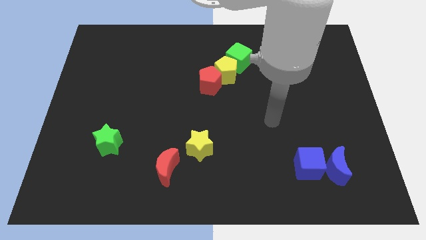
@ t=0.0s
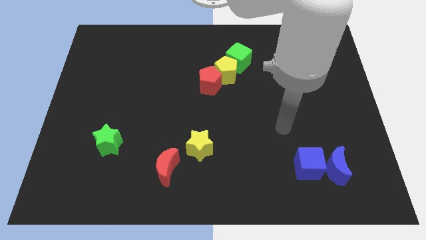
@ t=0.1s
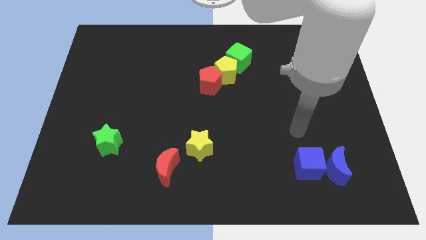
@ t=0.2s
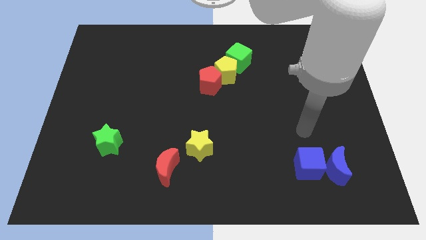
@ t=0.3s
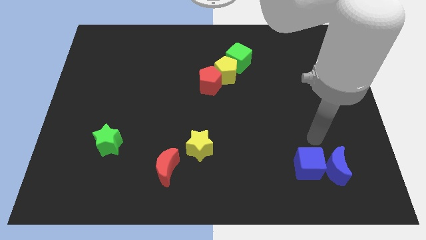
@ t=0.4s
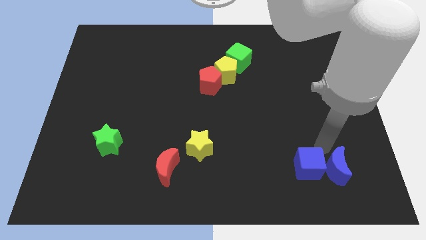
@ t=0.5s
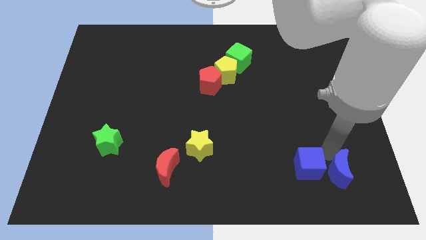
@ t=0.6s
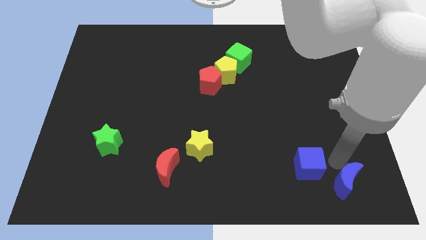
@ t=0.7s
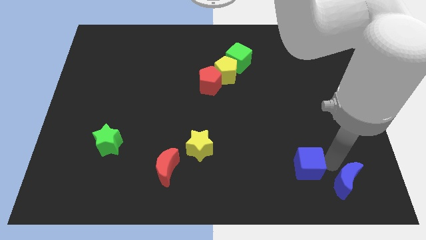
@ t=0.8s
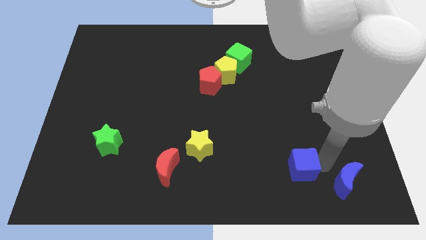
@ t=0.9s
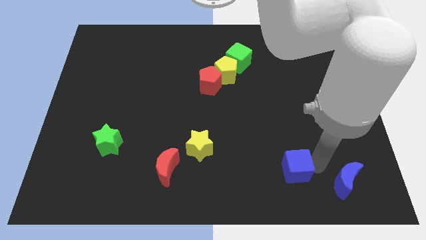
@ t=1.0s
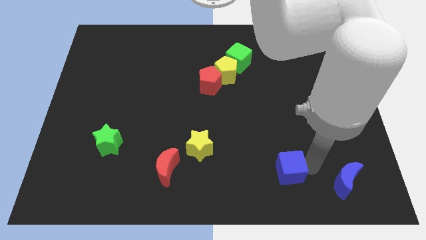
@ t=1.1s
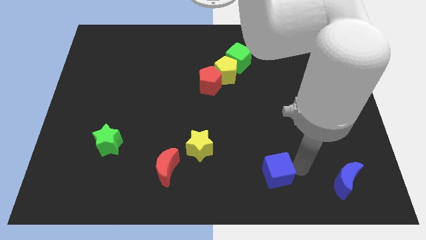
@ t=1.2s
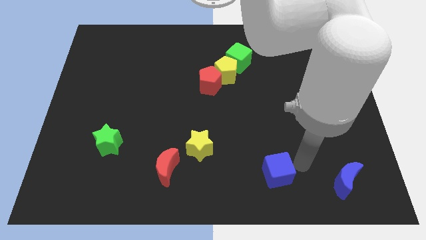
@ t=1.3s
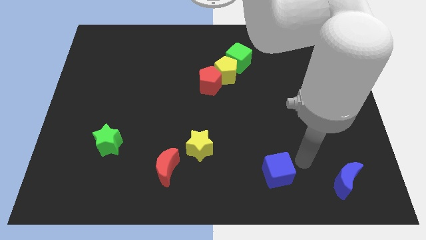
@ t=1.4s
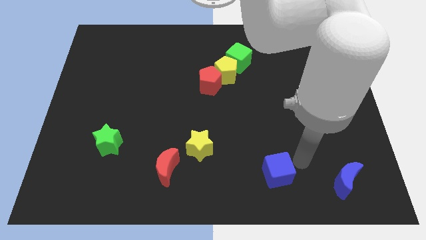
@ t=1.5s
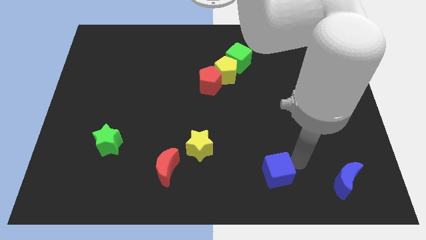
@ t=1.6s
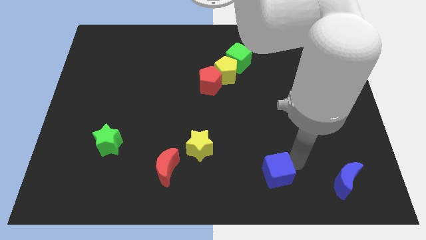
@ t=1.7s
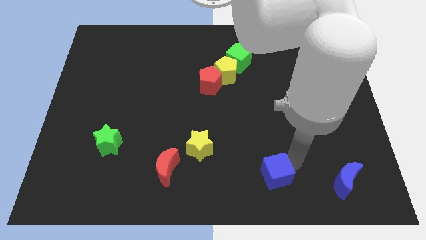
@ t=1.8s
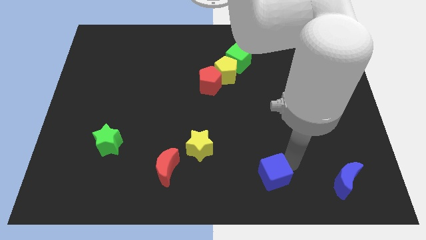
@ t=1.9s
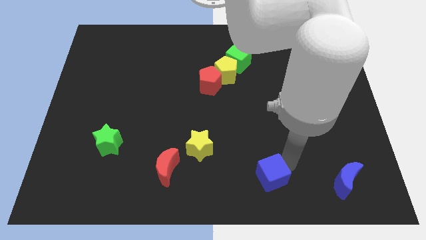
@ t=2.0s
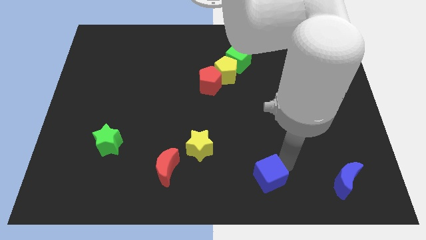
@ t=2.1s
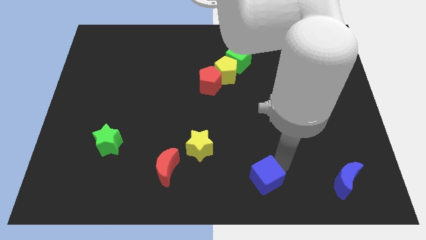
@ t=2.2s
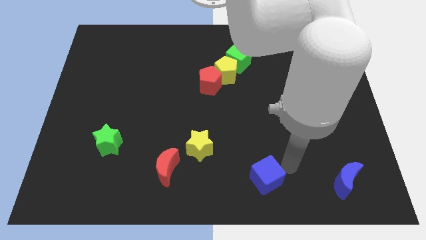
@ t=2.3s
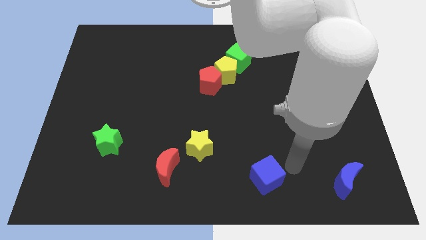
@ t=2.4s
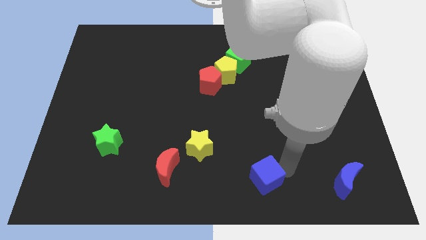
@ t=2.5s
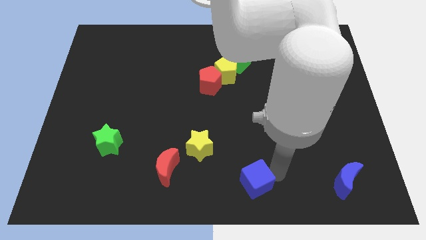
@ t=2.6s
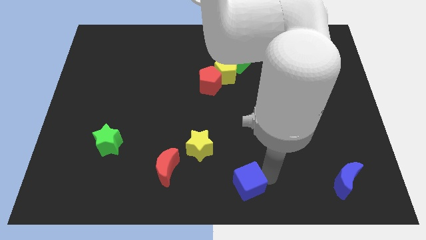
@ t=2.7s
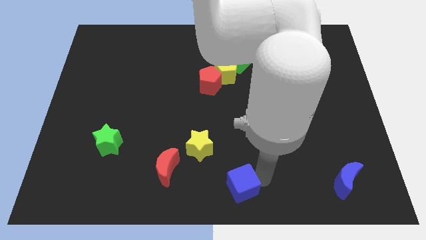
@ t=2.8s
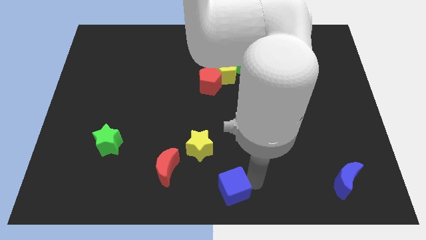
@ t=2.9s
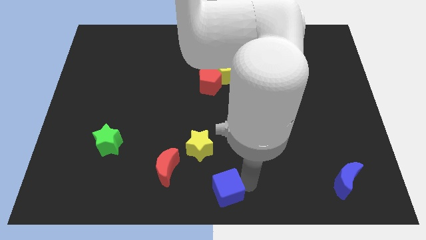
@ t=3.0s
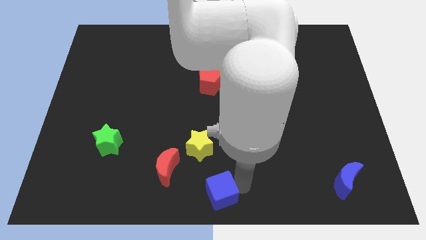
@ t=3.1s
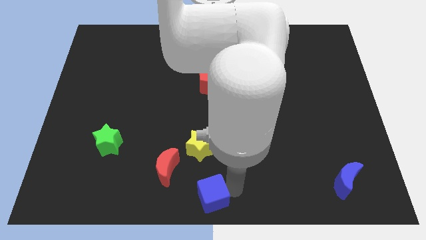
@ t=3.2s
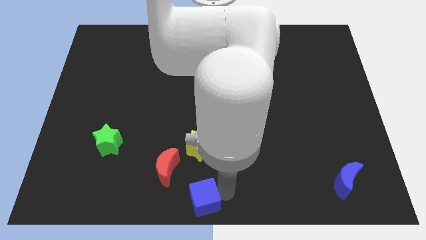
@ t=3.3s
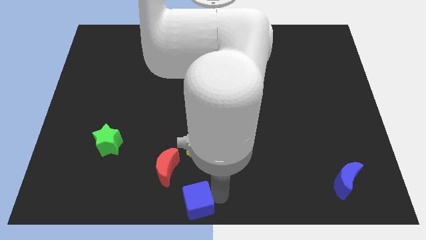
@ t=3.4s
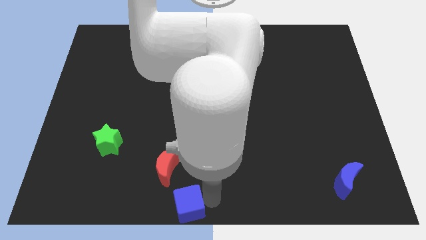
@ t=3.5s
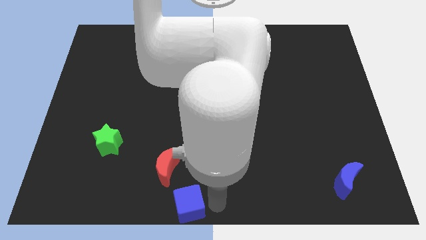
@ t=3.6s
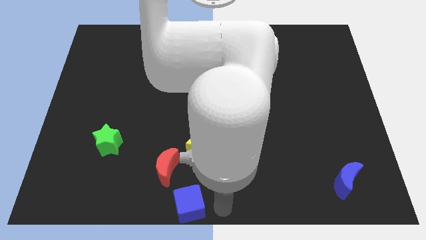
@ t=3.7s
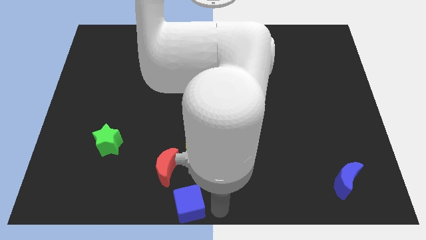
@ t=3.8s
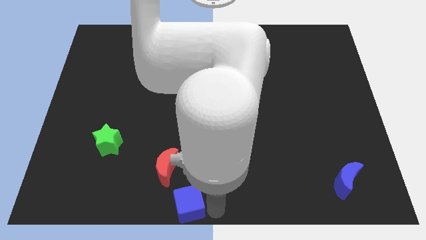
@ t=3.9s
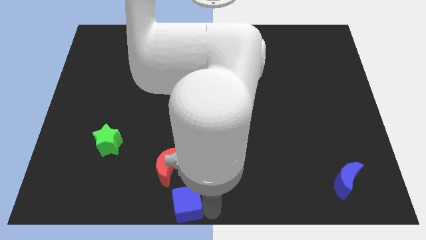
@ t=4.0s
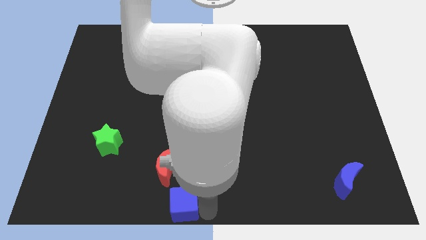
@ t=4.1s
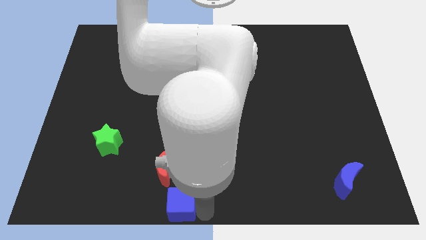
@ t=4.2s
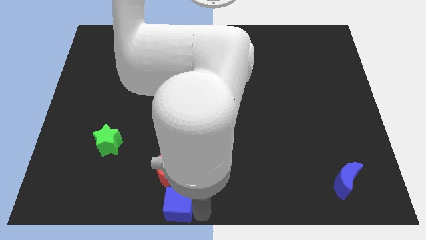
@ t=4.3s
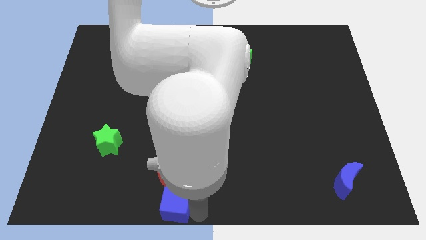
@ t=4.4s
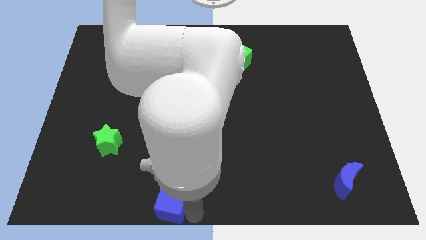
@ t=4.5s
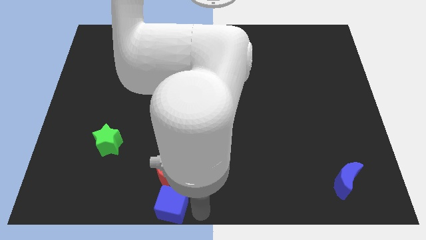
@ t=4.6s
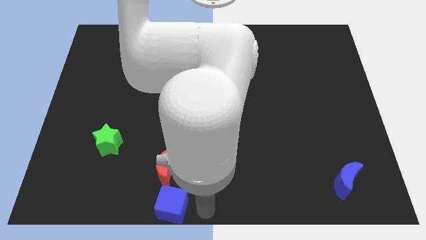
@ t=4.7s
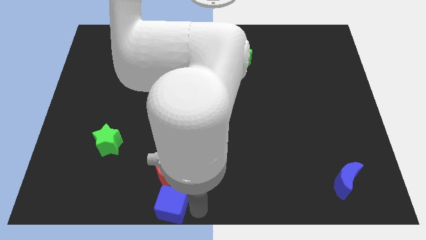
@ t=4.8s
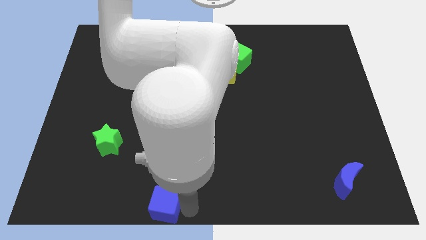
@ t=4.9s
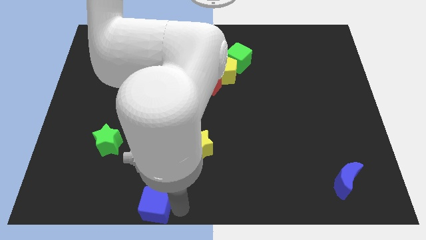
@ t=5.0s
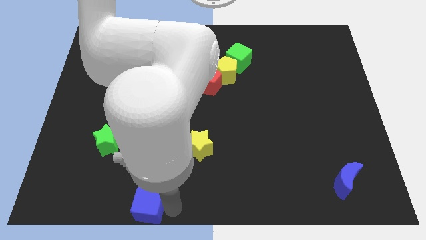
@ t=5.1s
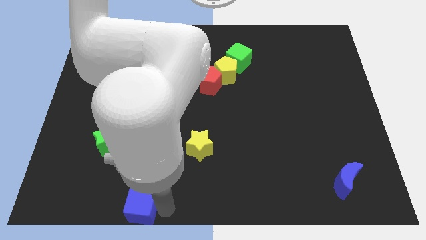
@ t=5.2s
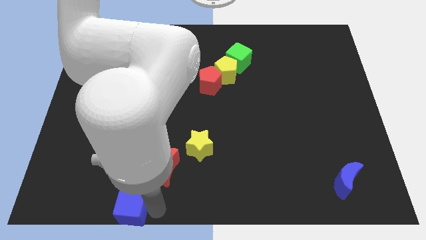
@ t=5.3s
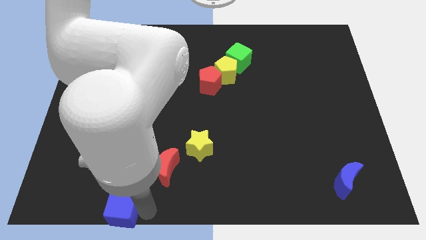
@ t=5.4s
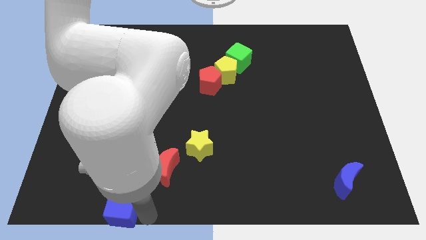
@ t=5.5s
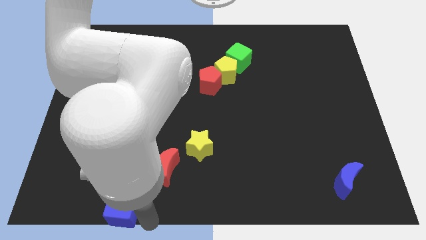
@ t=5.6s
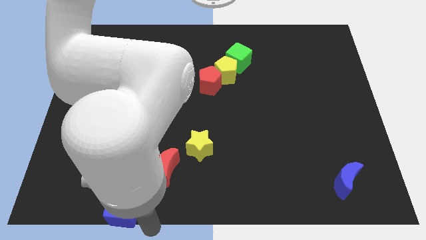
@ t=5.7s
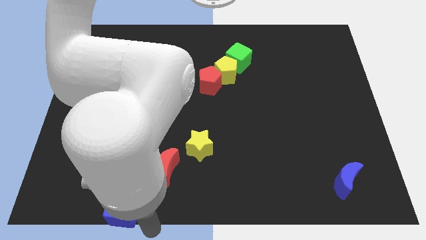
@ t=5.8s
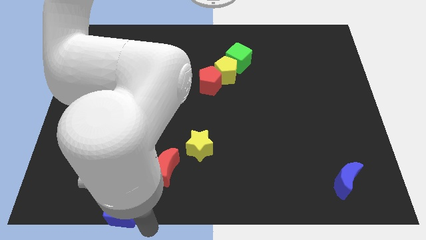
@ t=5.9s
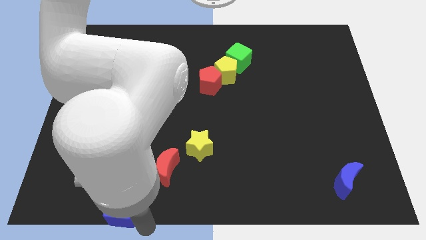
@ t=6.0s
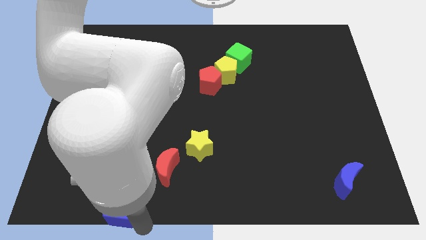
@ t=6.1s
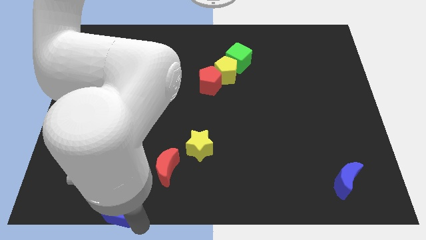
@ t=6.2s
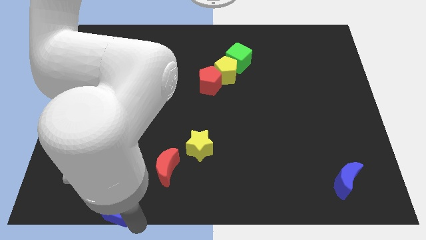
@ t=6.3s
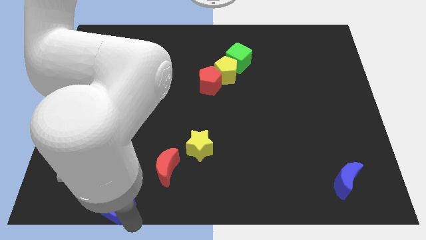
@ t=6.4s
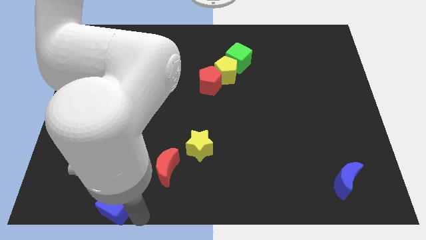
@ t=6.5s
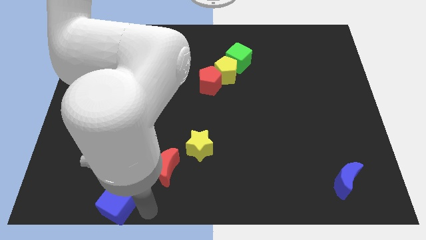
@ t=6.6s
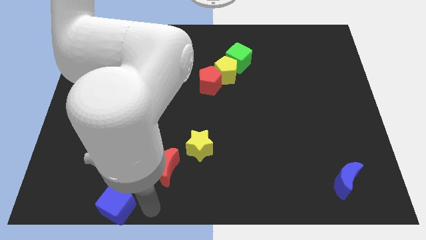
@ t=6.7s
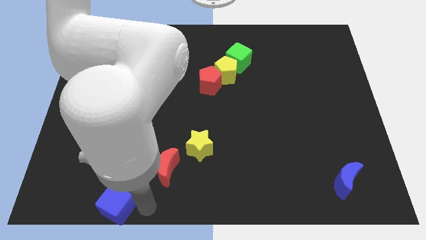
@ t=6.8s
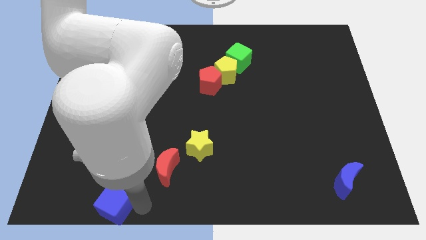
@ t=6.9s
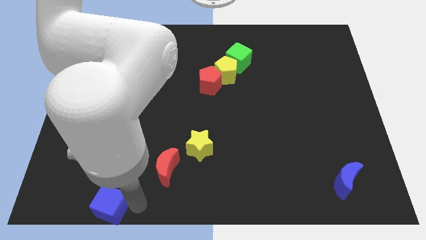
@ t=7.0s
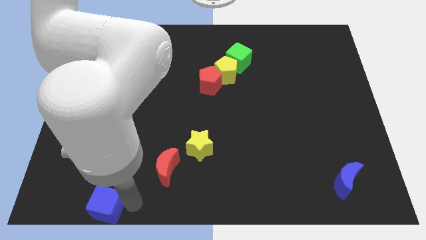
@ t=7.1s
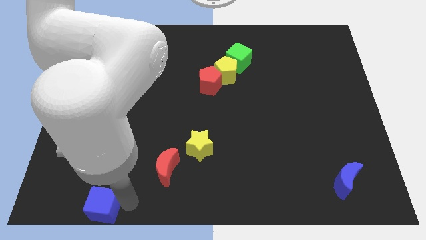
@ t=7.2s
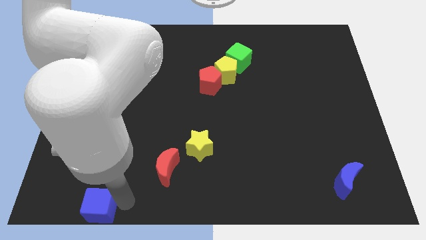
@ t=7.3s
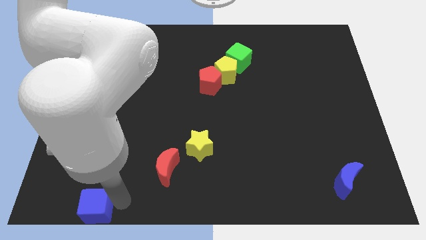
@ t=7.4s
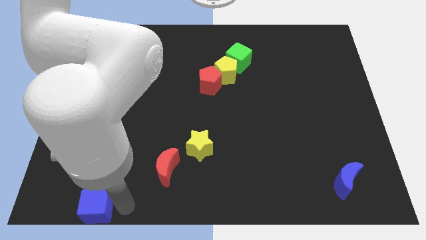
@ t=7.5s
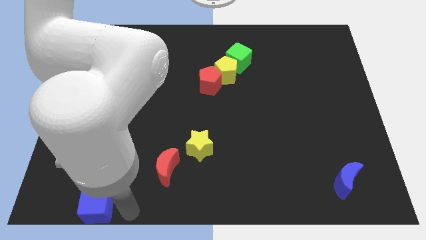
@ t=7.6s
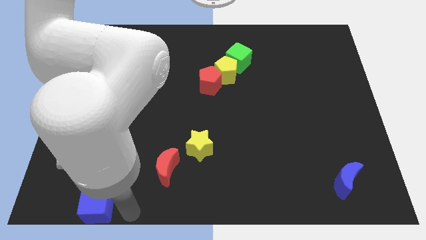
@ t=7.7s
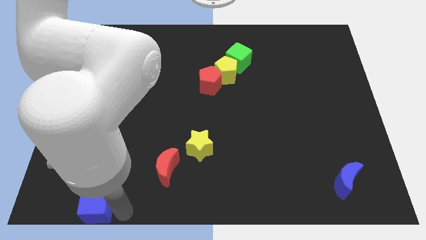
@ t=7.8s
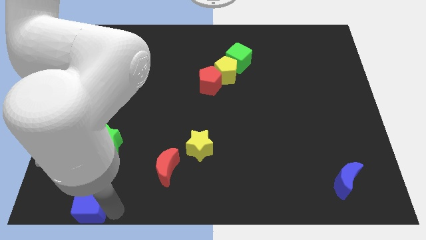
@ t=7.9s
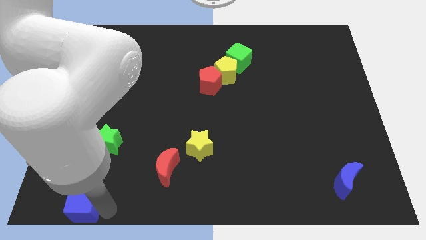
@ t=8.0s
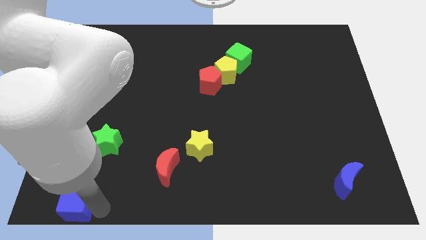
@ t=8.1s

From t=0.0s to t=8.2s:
push the blue cube to the bottom left corner
